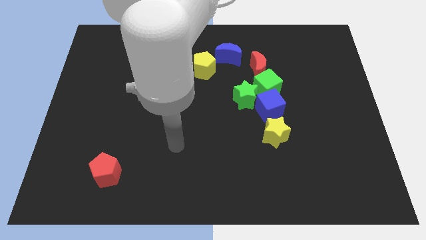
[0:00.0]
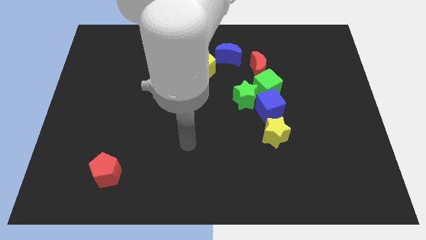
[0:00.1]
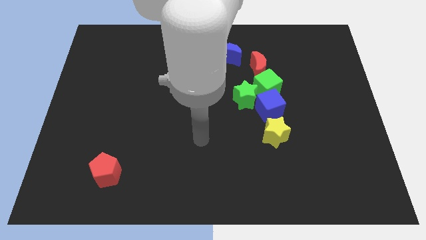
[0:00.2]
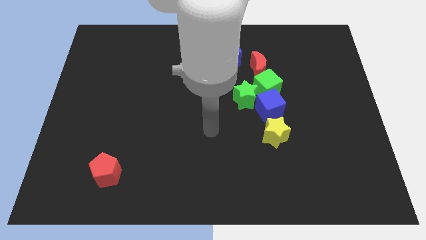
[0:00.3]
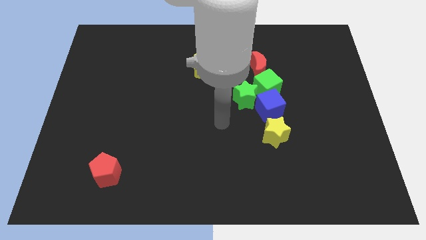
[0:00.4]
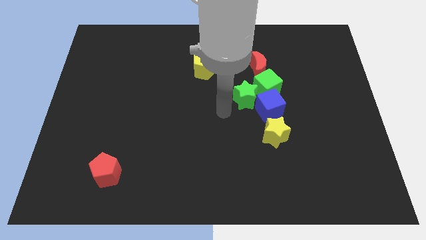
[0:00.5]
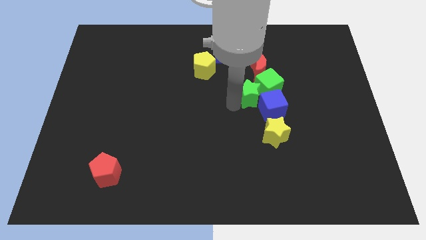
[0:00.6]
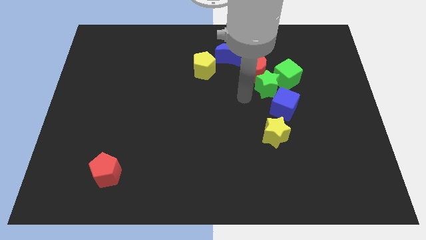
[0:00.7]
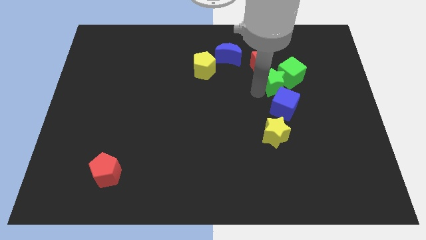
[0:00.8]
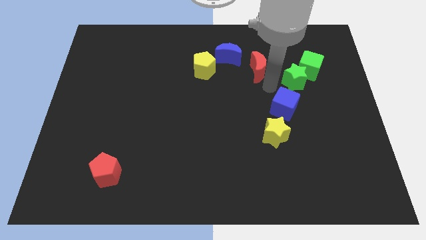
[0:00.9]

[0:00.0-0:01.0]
separate the green cube from the green star, blue cube, and red moon

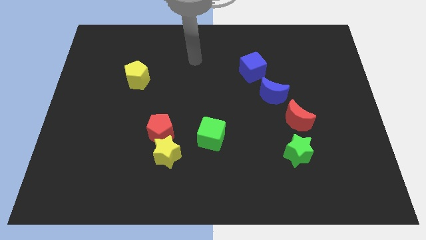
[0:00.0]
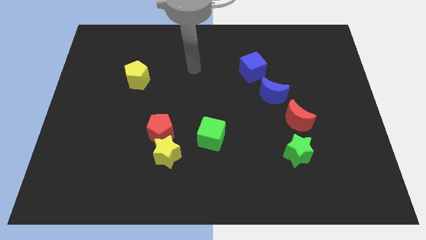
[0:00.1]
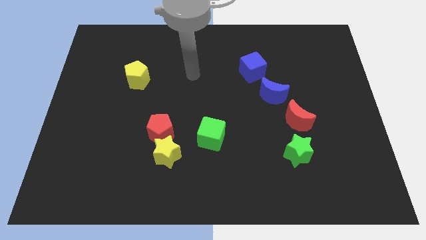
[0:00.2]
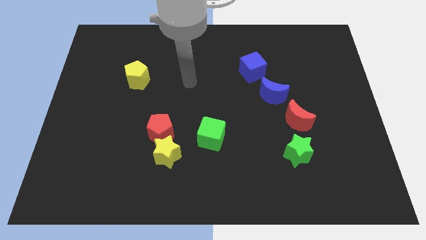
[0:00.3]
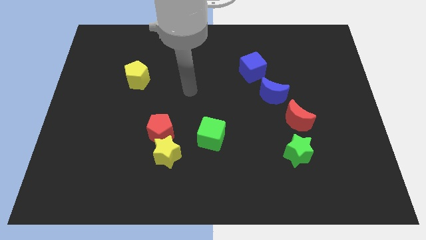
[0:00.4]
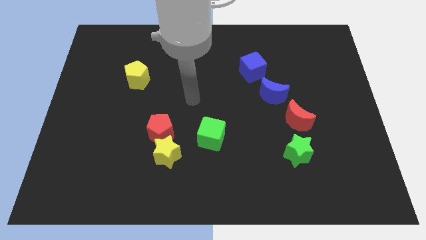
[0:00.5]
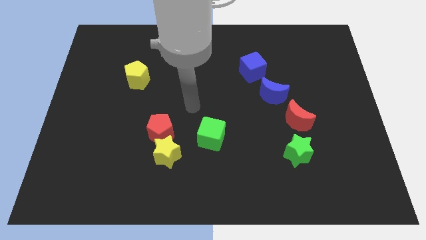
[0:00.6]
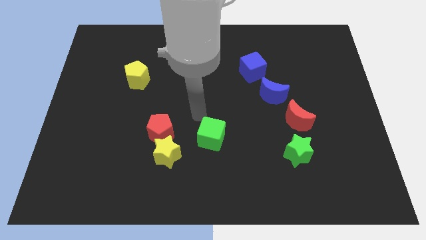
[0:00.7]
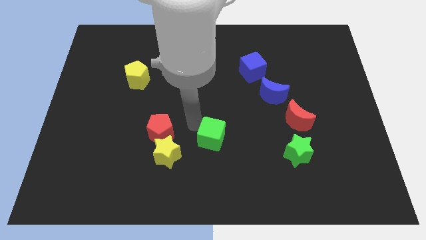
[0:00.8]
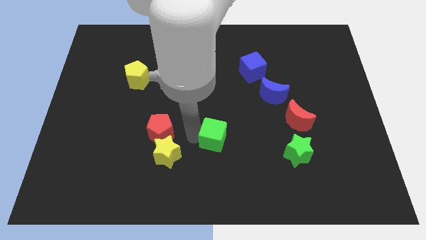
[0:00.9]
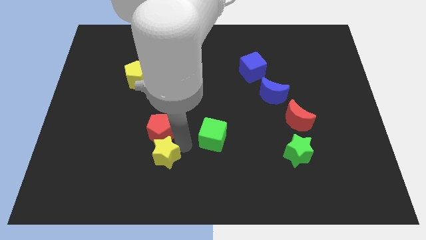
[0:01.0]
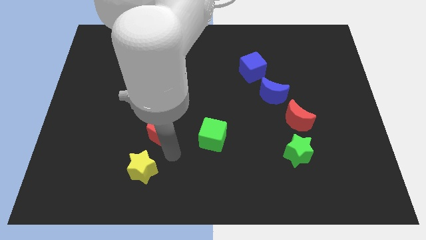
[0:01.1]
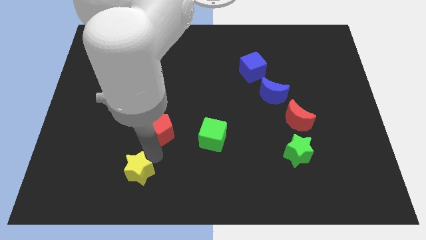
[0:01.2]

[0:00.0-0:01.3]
separate the red pentagon from the yellow star

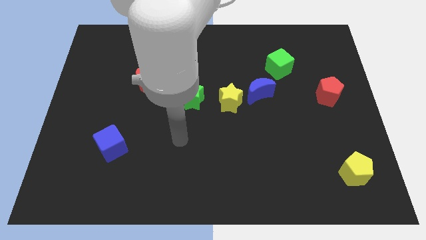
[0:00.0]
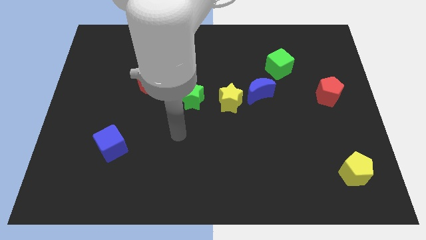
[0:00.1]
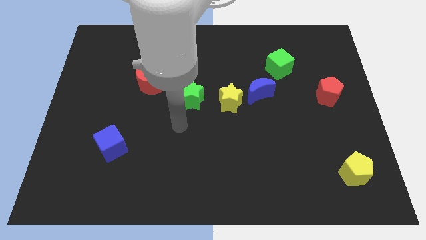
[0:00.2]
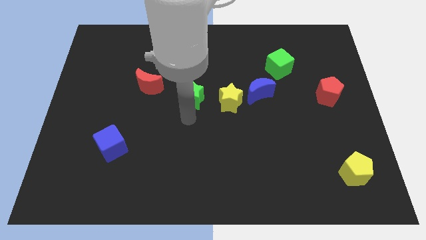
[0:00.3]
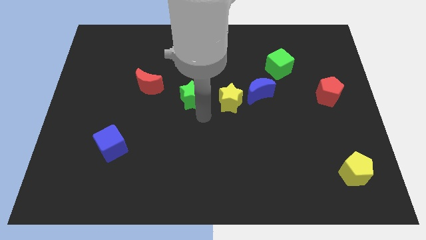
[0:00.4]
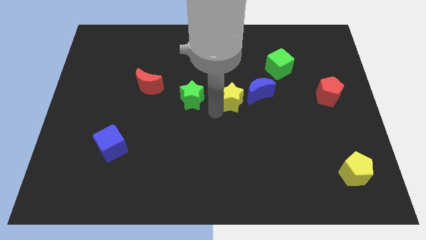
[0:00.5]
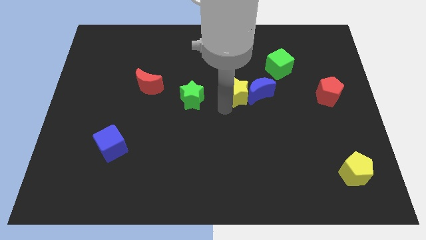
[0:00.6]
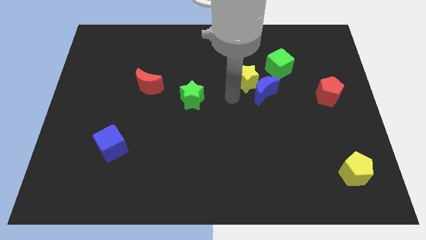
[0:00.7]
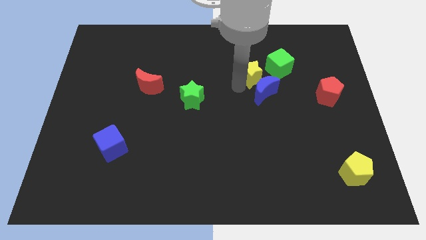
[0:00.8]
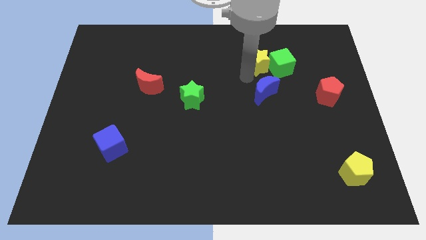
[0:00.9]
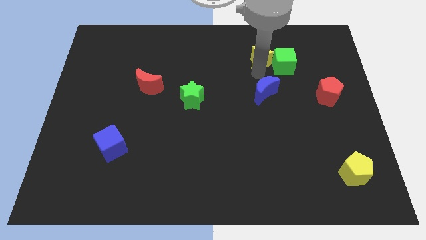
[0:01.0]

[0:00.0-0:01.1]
move the blue moon away from the yellow star

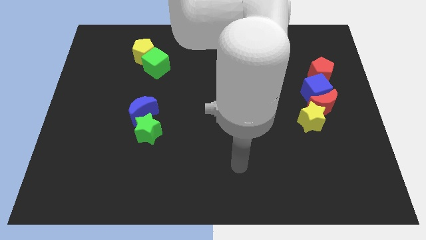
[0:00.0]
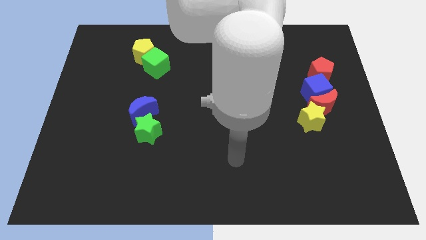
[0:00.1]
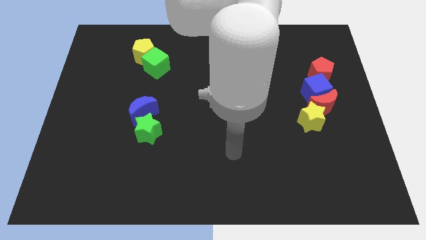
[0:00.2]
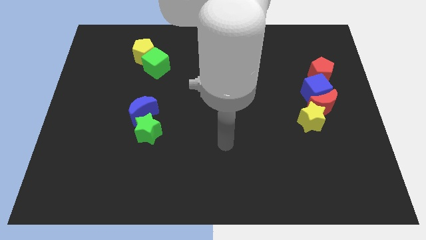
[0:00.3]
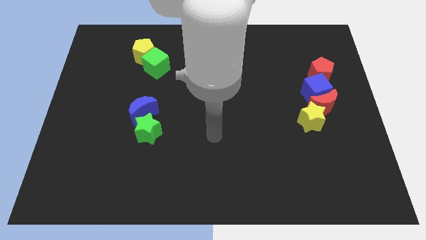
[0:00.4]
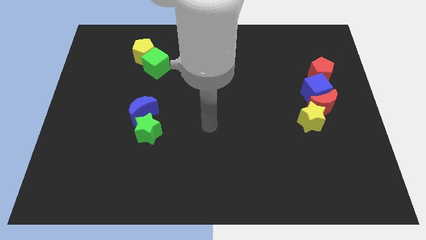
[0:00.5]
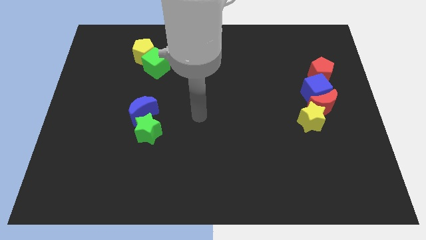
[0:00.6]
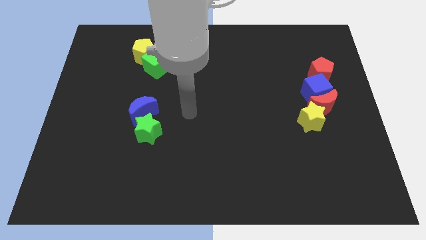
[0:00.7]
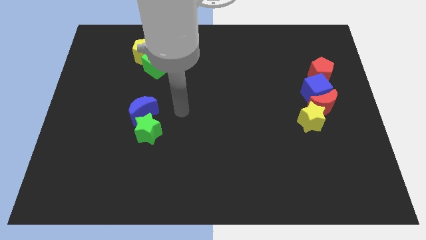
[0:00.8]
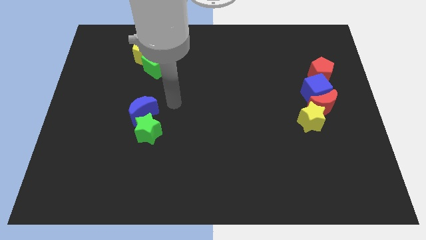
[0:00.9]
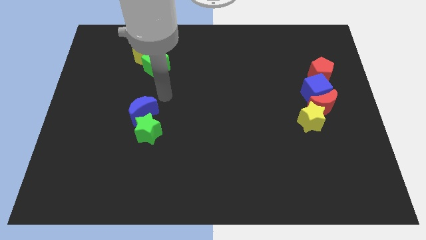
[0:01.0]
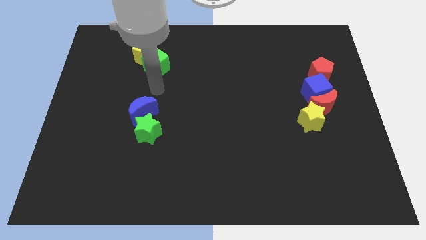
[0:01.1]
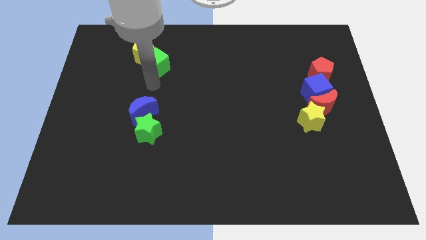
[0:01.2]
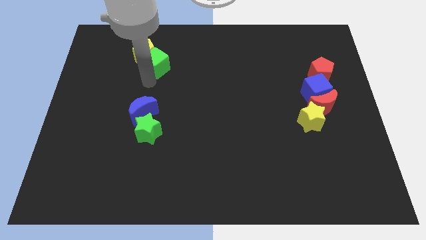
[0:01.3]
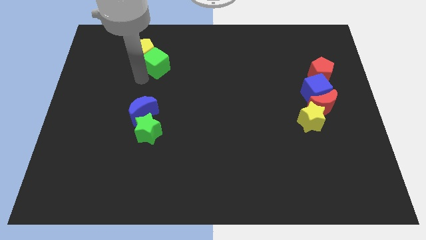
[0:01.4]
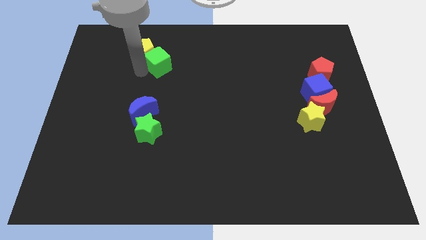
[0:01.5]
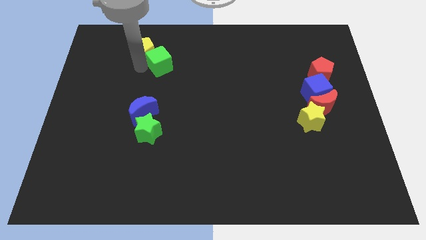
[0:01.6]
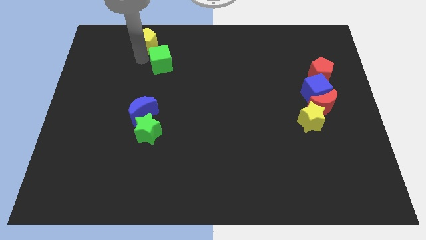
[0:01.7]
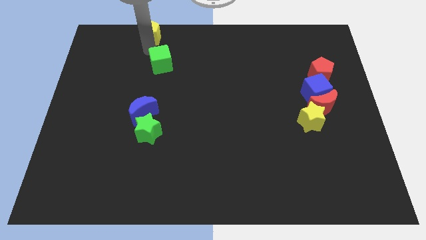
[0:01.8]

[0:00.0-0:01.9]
move the green cube away from the yellow pentagon

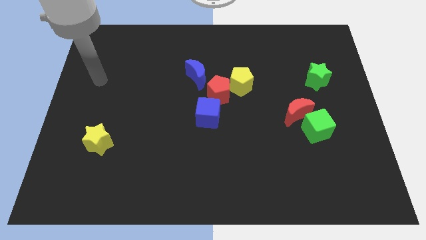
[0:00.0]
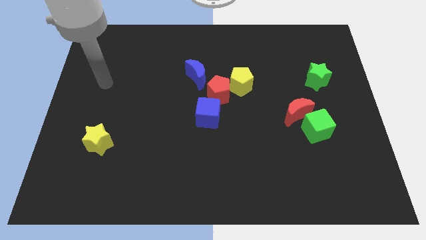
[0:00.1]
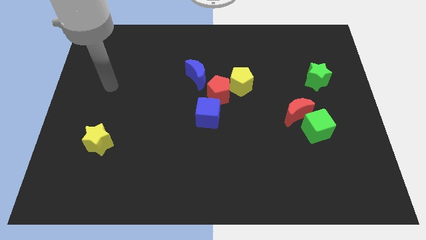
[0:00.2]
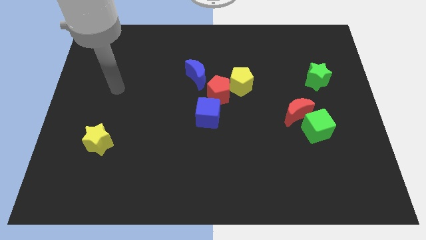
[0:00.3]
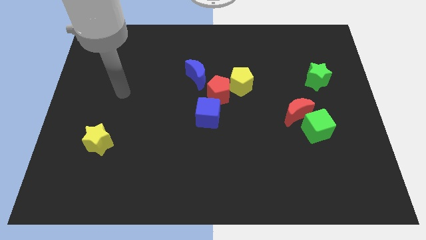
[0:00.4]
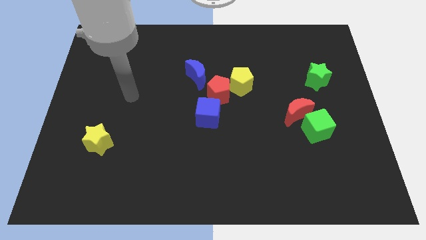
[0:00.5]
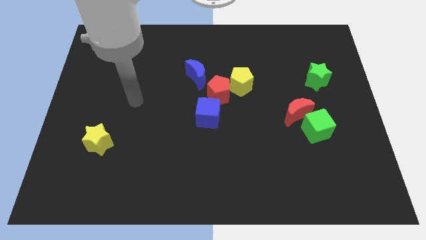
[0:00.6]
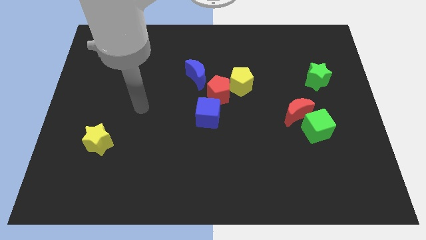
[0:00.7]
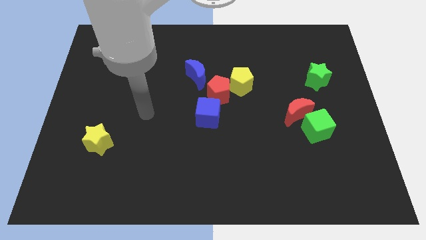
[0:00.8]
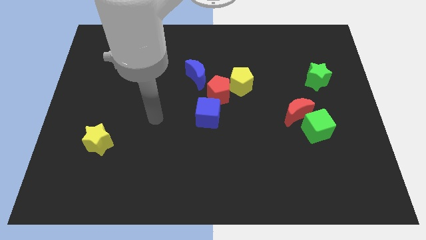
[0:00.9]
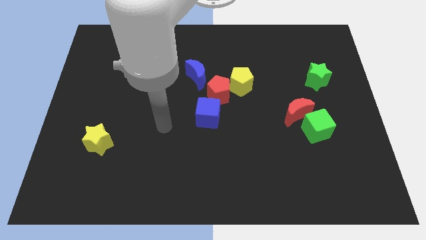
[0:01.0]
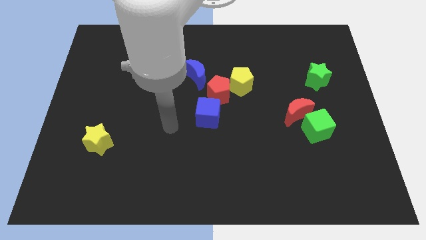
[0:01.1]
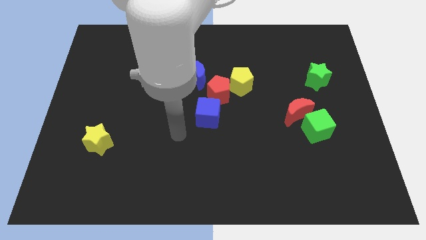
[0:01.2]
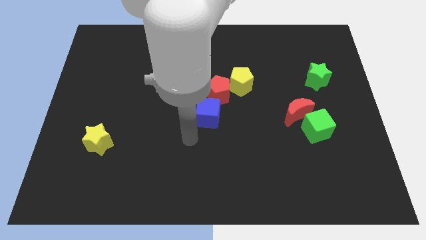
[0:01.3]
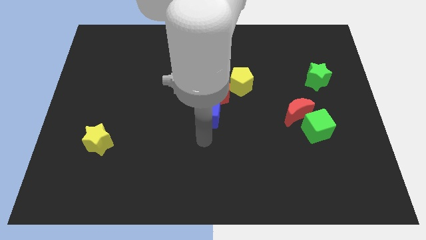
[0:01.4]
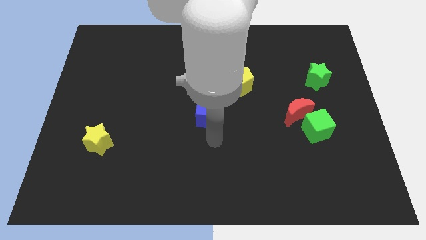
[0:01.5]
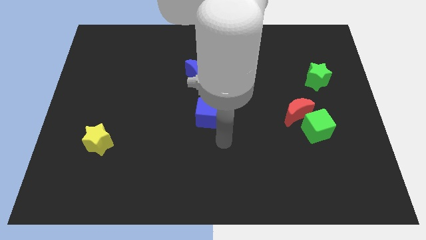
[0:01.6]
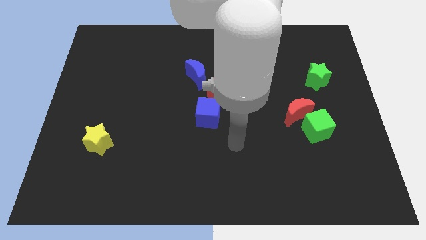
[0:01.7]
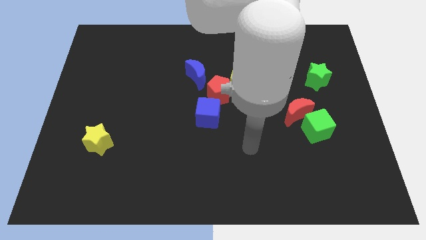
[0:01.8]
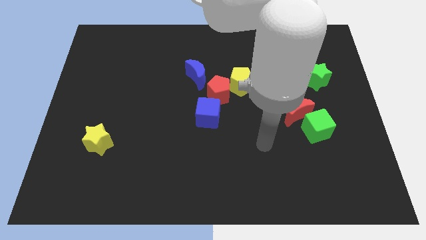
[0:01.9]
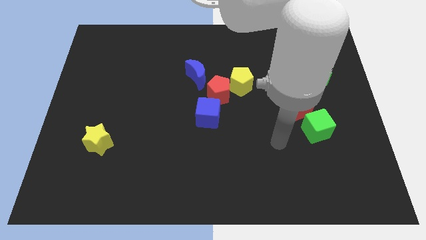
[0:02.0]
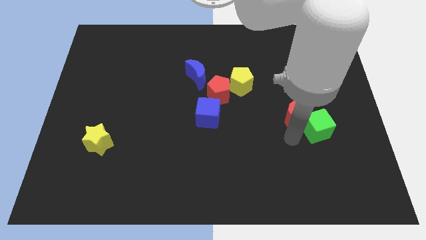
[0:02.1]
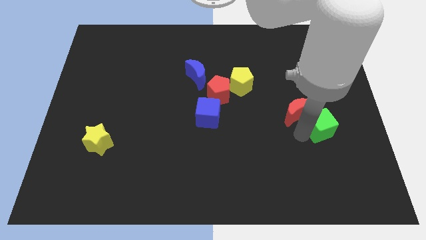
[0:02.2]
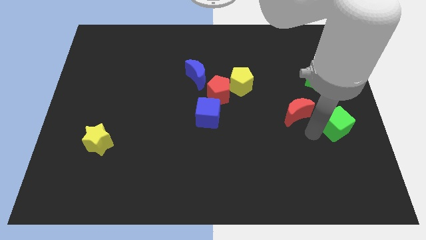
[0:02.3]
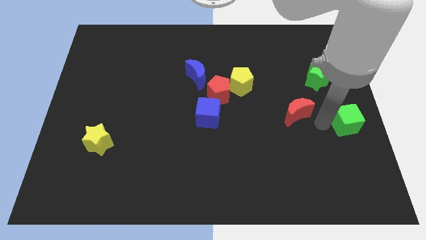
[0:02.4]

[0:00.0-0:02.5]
pull the red moon apart from the green cube

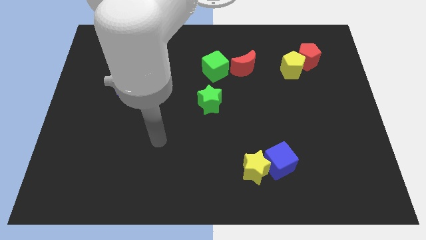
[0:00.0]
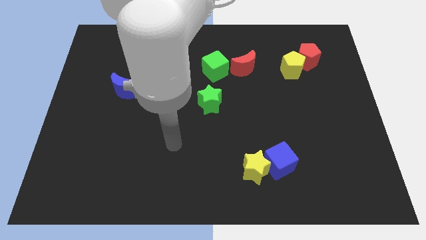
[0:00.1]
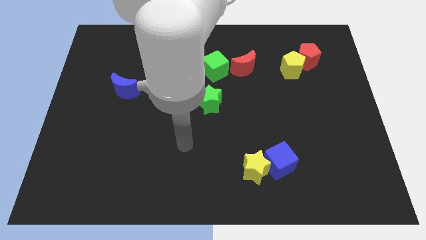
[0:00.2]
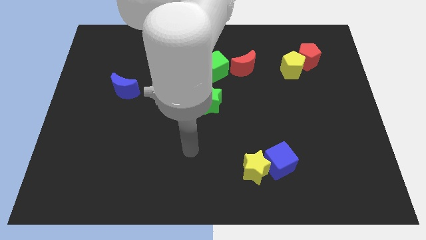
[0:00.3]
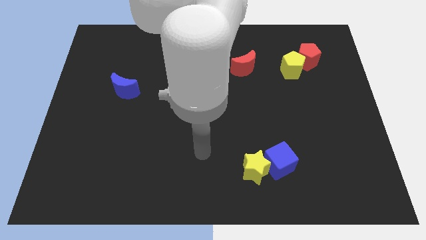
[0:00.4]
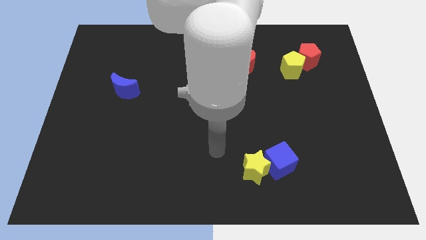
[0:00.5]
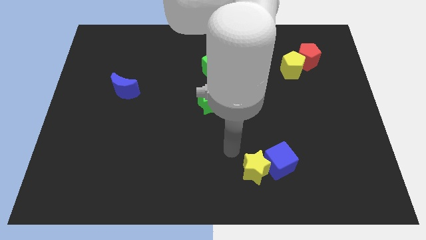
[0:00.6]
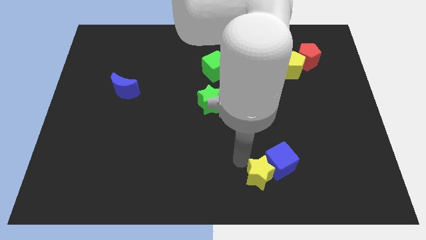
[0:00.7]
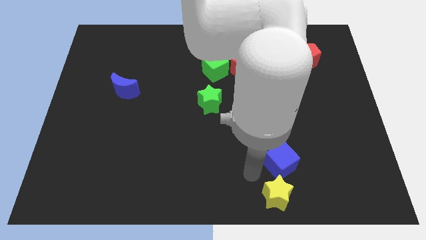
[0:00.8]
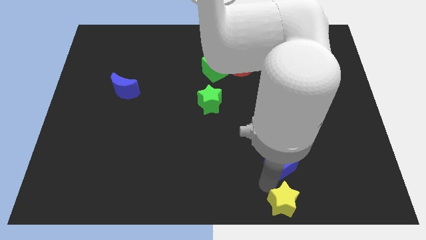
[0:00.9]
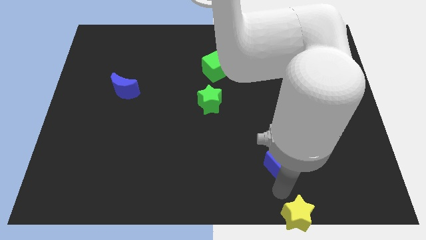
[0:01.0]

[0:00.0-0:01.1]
pull the blue cube apart from the yellow star

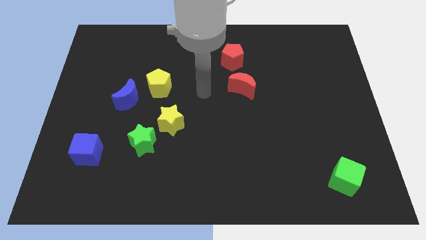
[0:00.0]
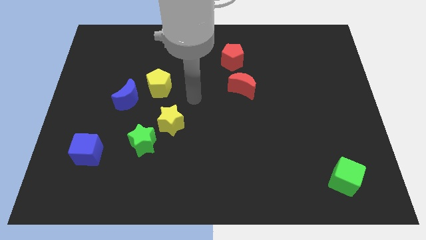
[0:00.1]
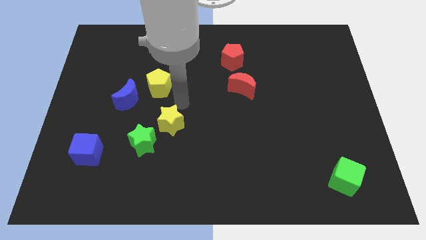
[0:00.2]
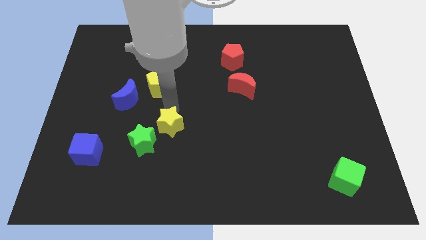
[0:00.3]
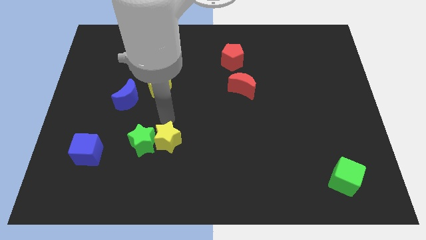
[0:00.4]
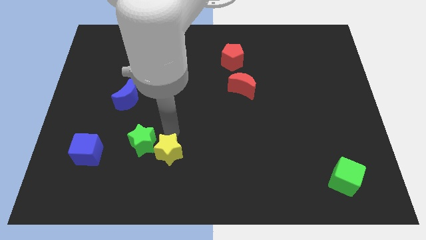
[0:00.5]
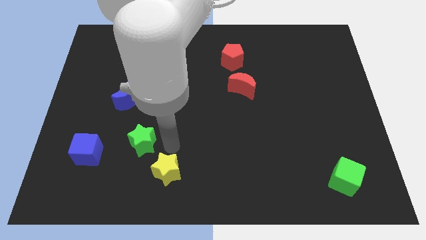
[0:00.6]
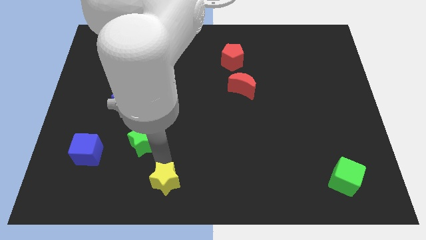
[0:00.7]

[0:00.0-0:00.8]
move the green star away from the yellow star
